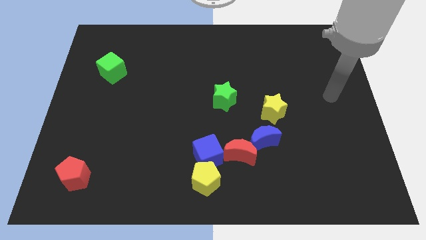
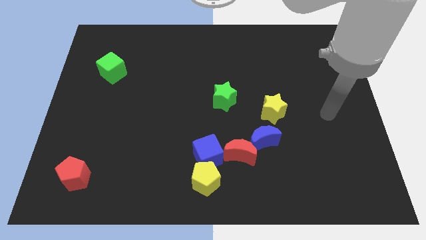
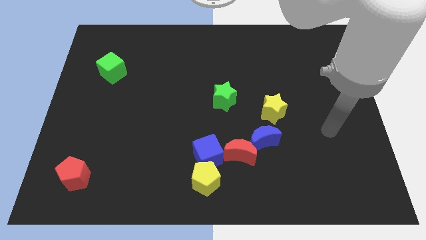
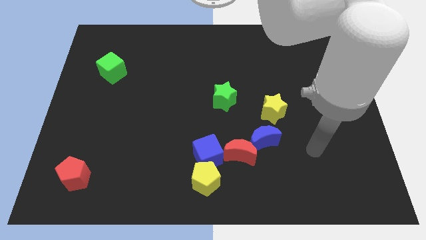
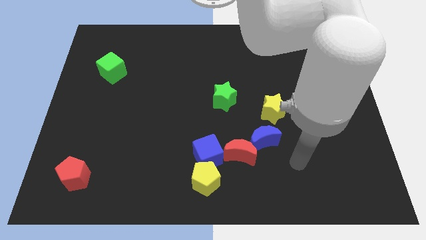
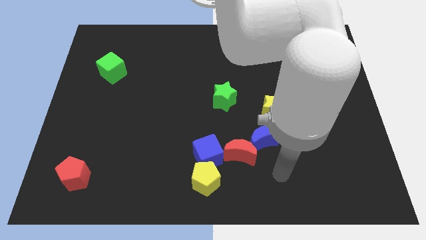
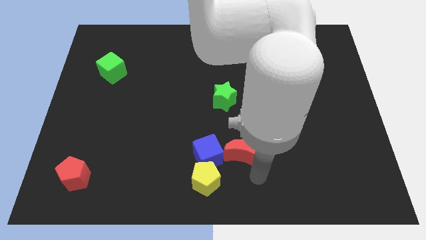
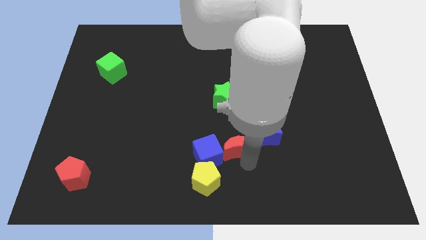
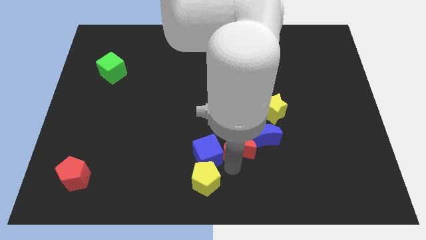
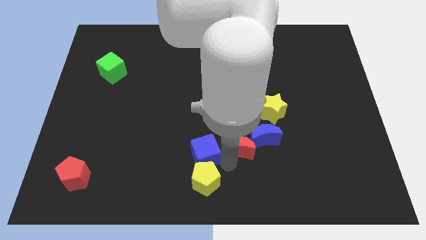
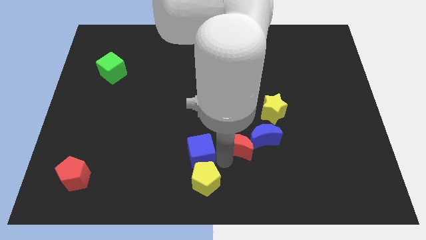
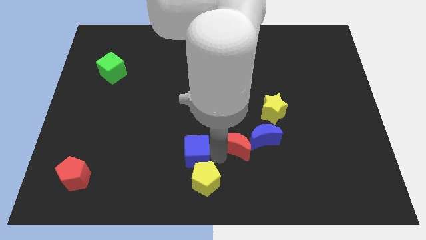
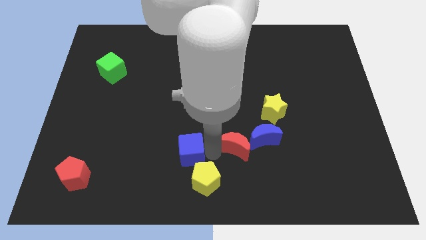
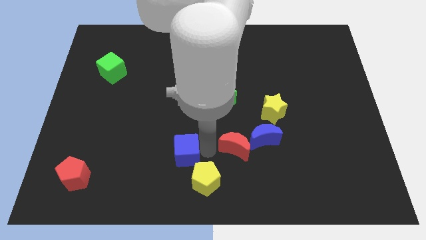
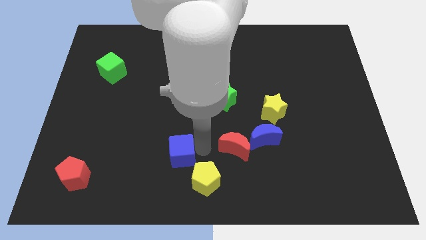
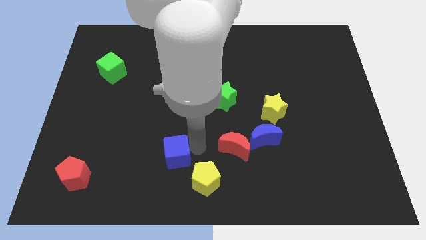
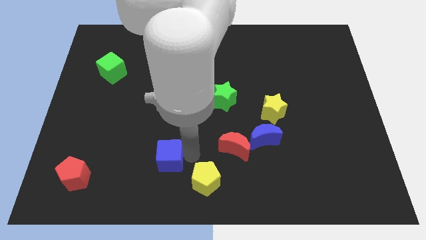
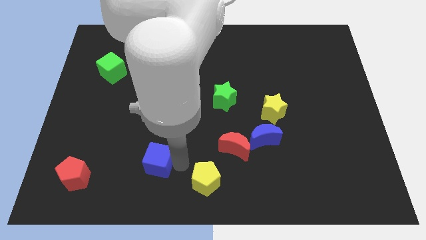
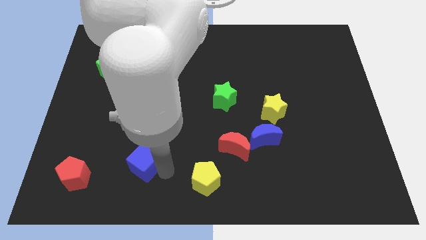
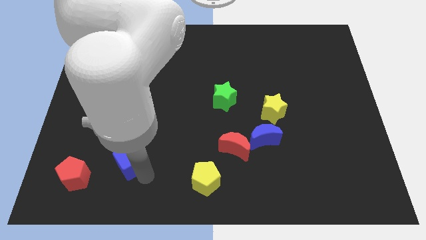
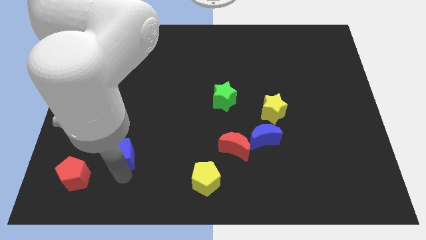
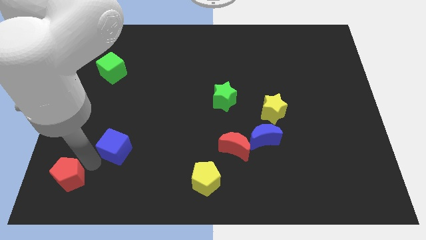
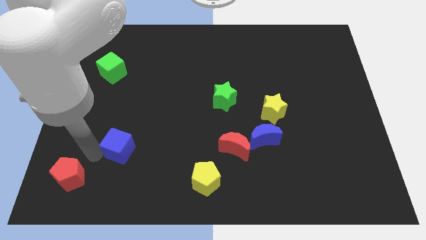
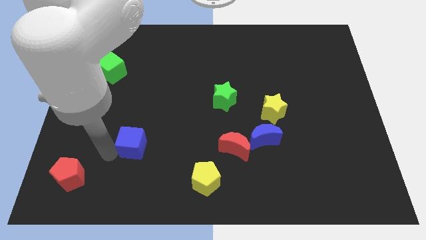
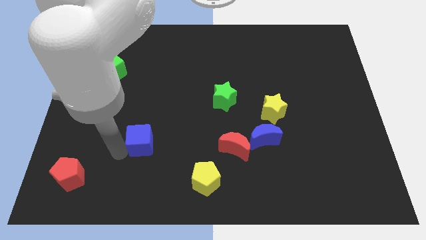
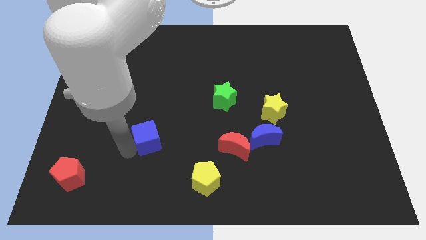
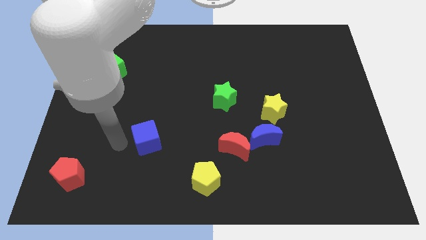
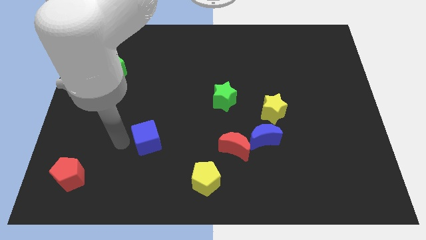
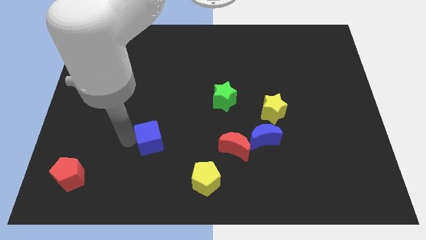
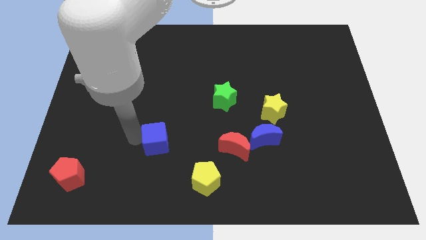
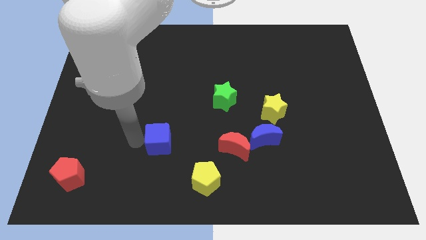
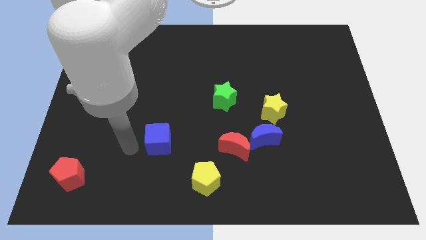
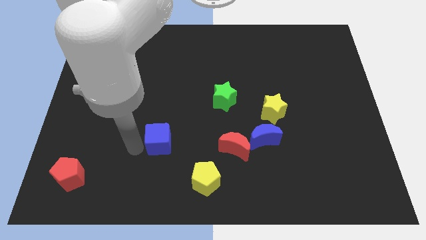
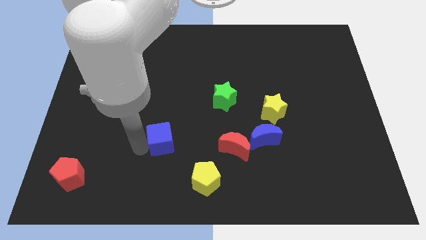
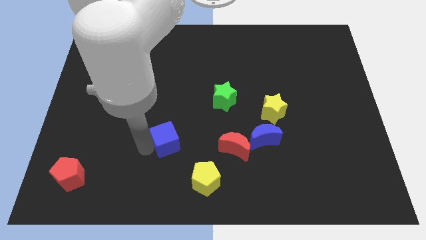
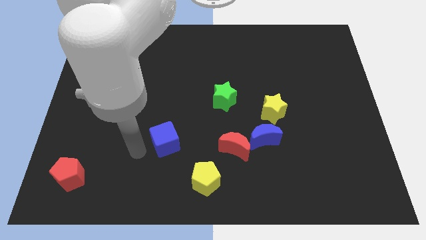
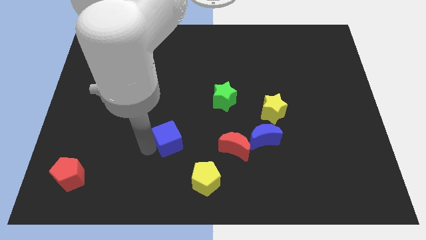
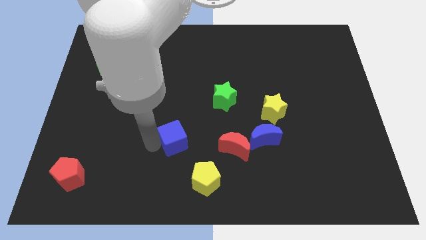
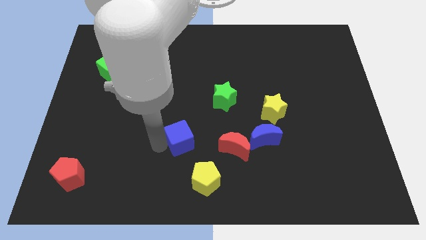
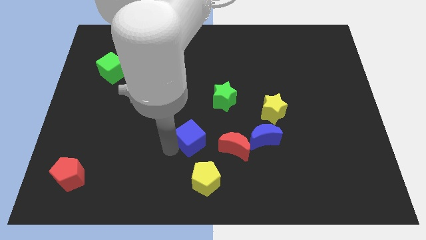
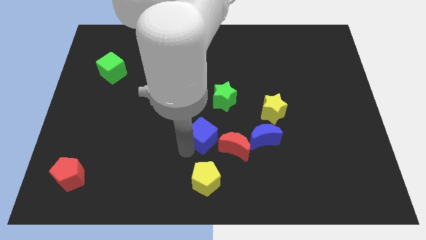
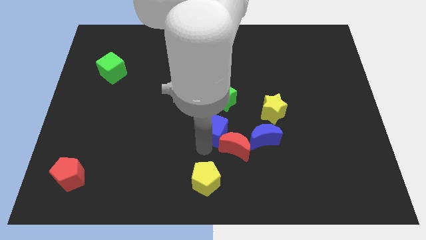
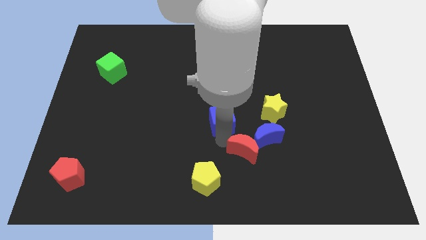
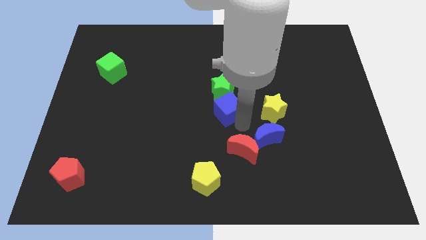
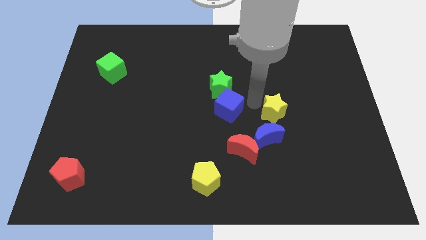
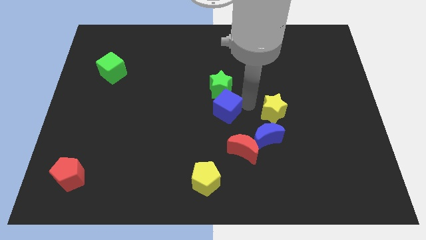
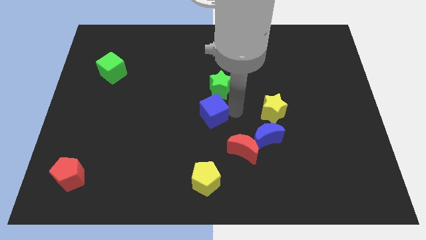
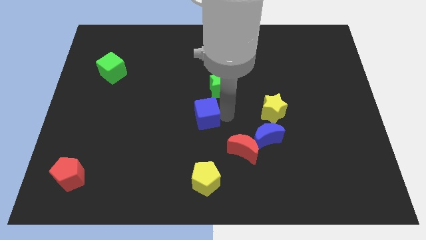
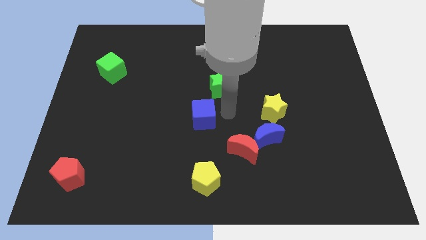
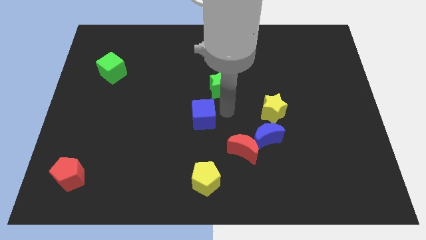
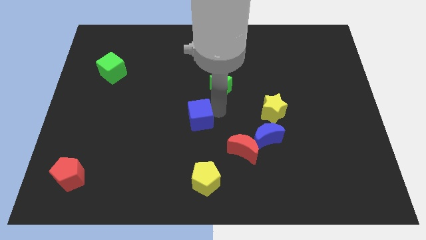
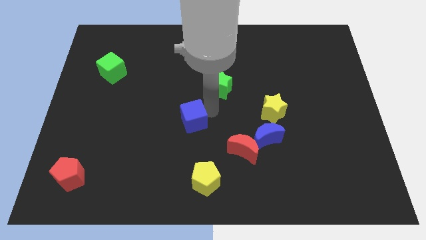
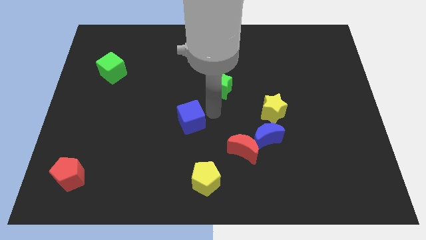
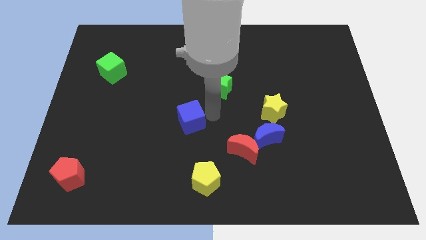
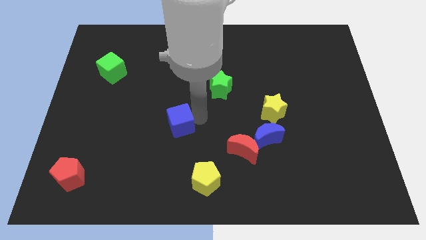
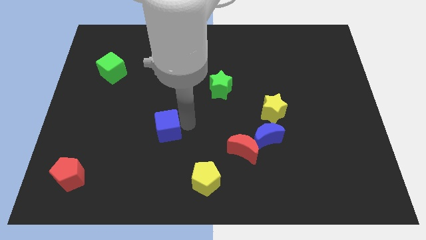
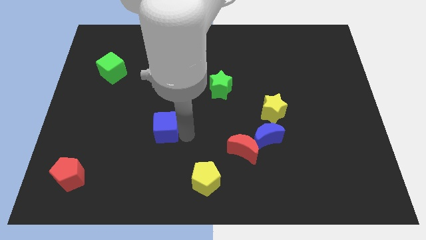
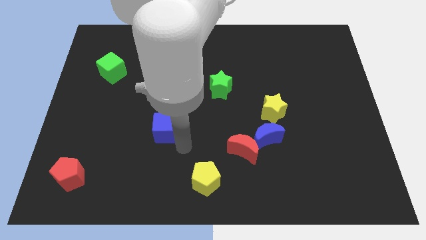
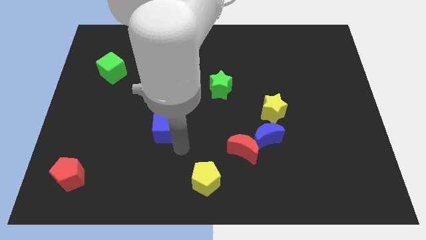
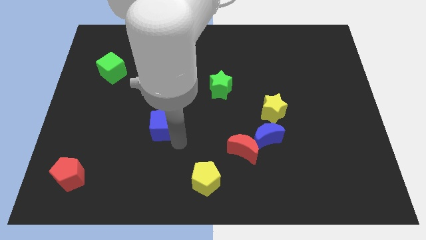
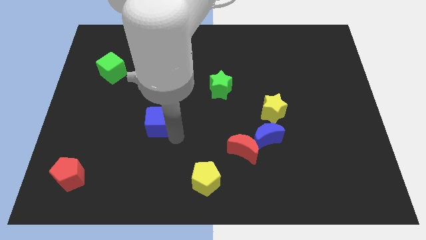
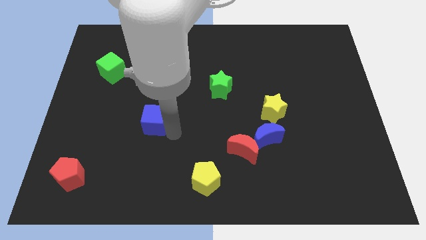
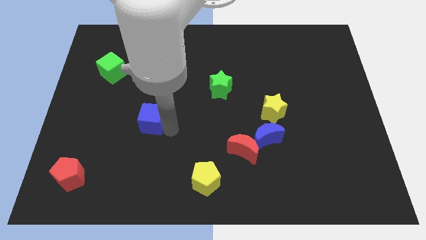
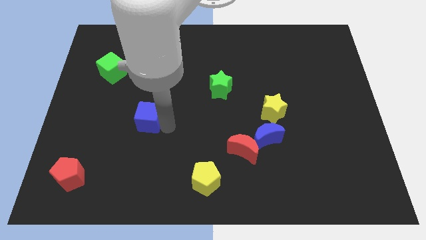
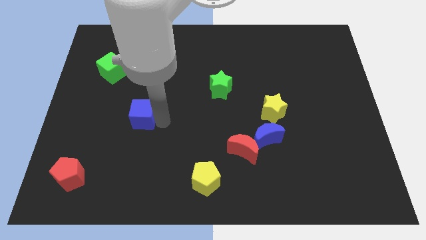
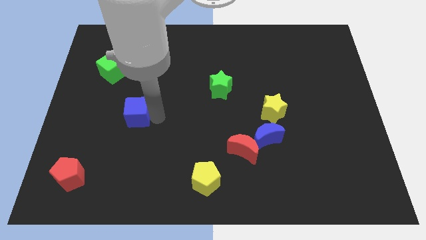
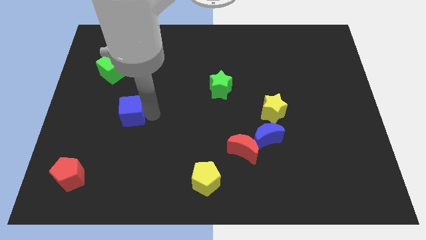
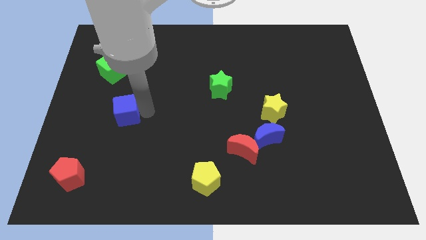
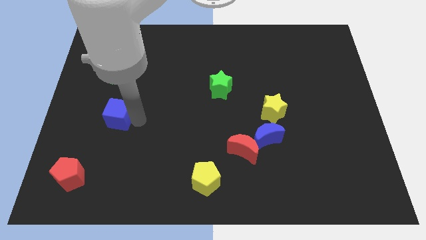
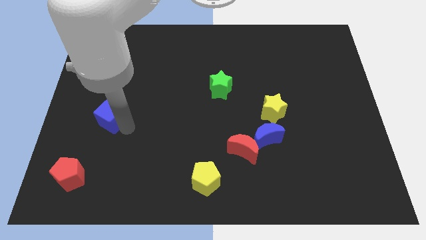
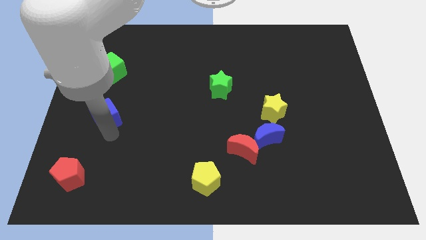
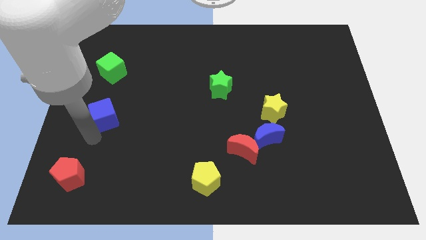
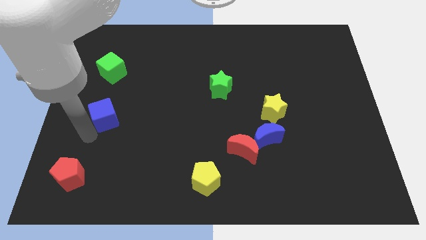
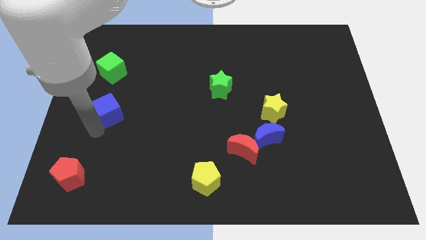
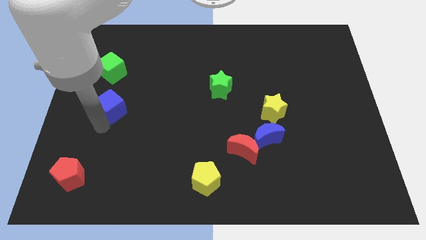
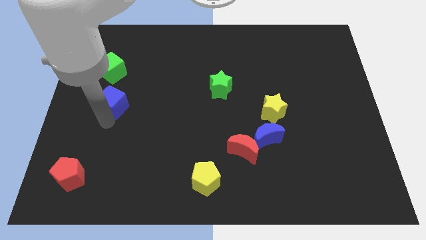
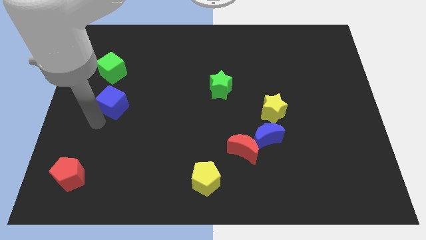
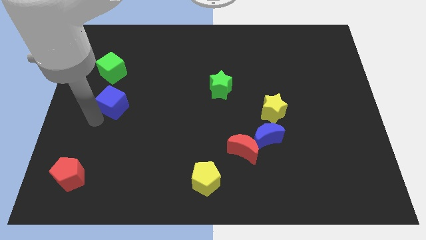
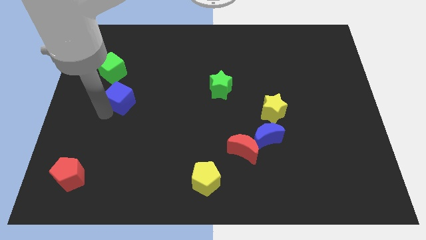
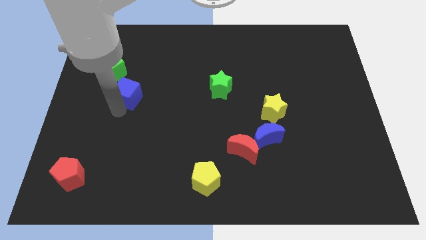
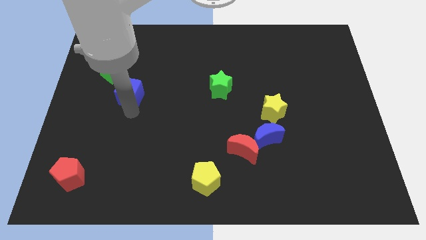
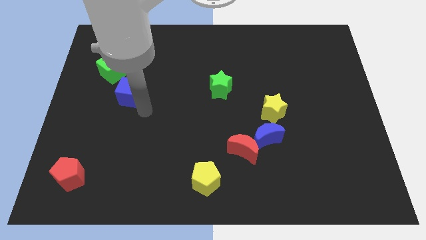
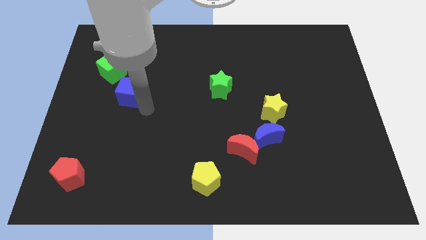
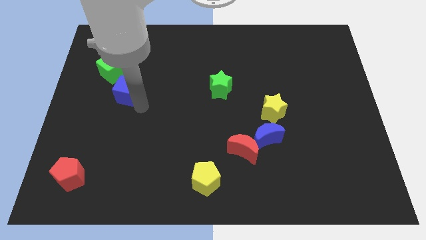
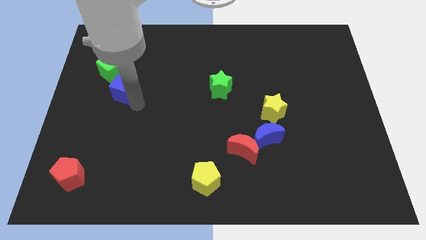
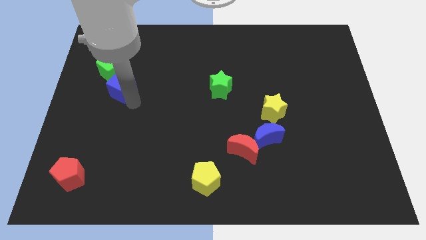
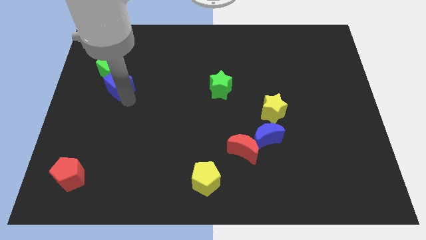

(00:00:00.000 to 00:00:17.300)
put the blue cube to the green cube
